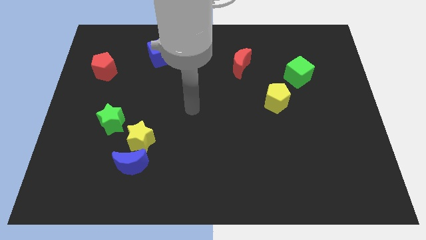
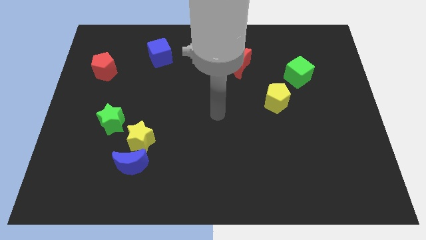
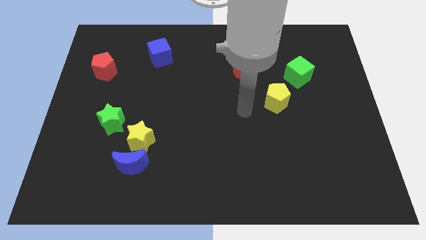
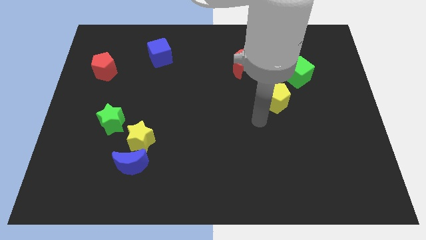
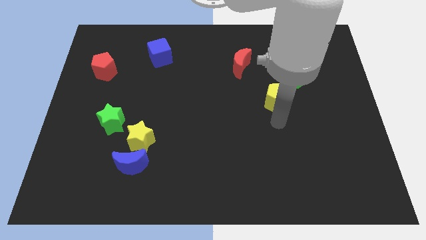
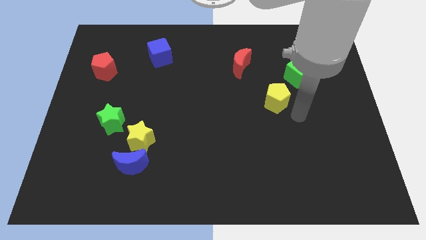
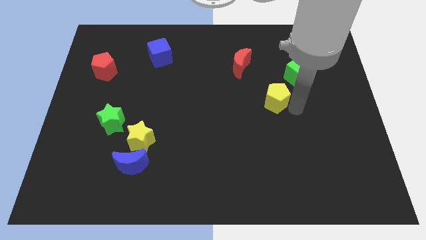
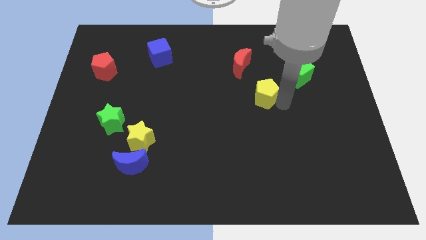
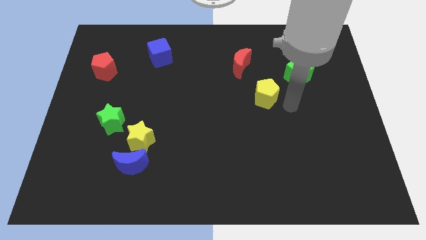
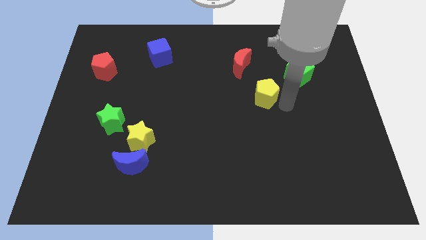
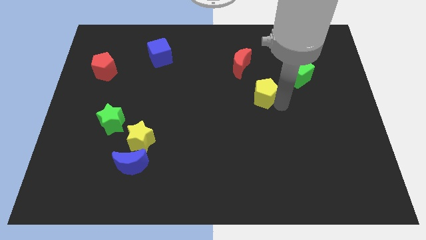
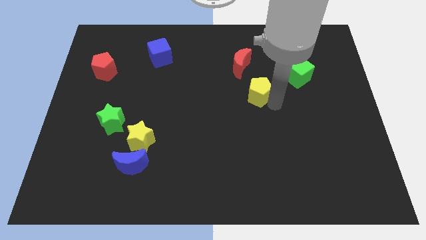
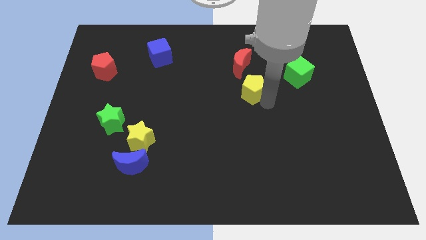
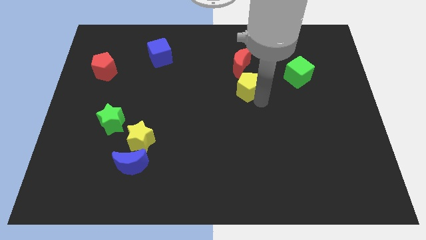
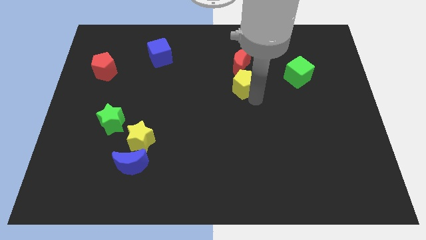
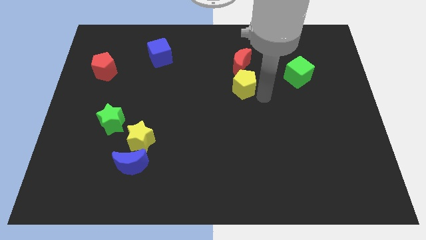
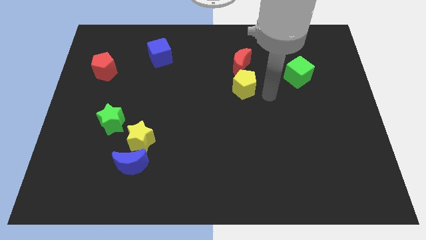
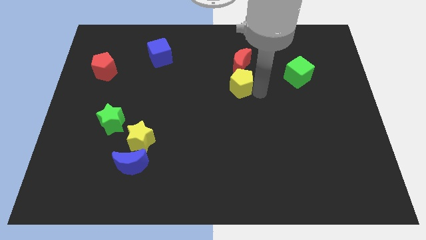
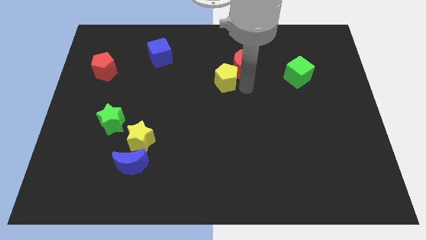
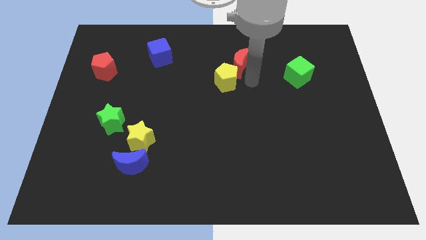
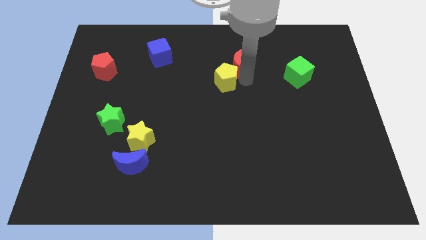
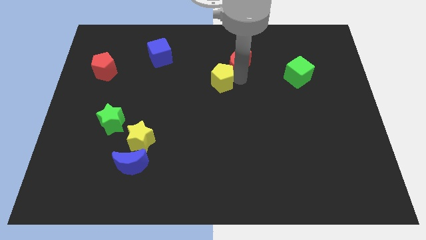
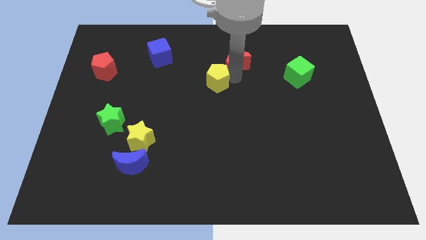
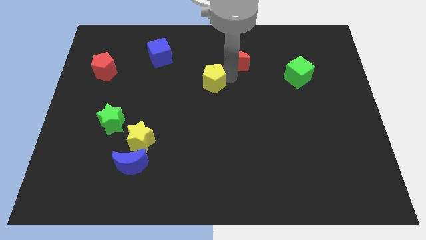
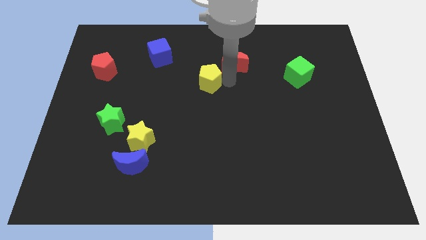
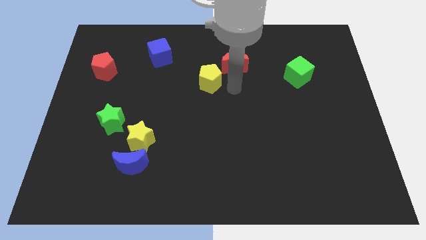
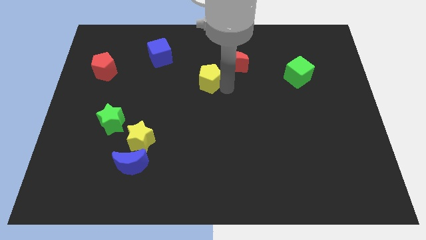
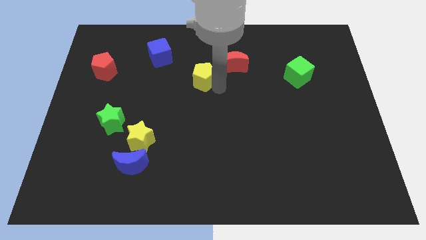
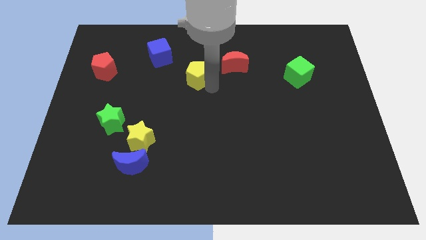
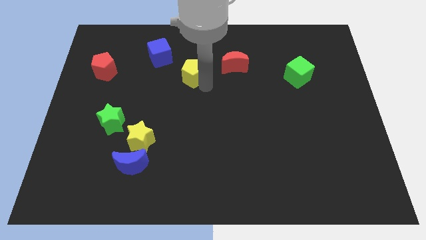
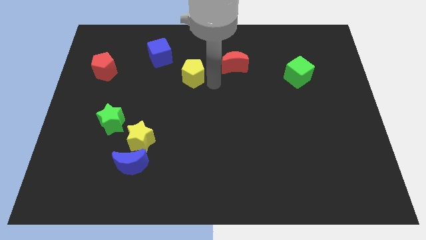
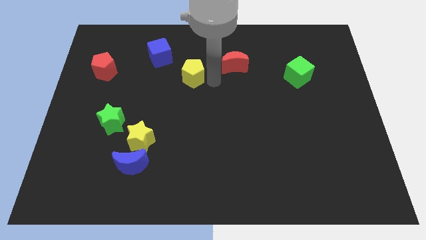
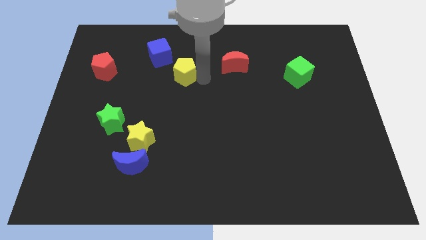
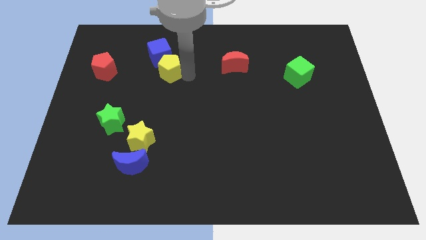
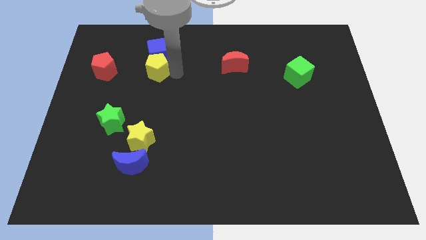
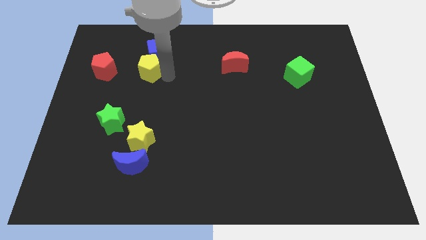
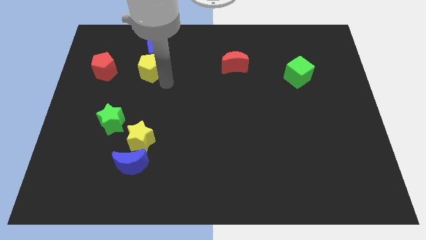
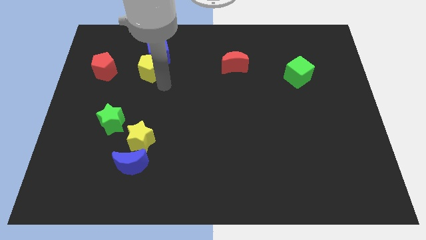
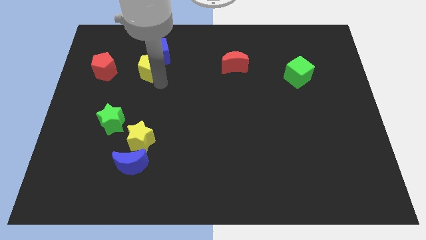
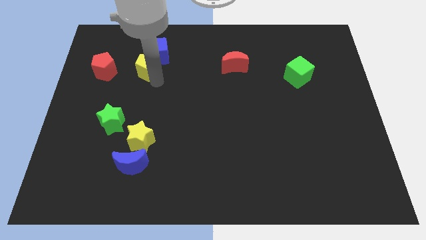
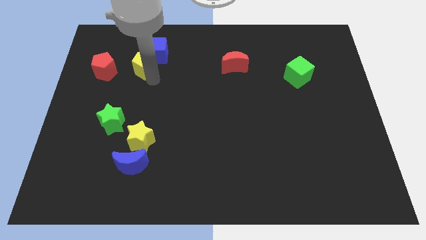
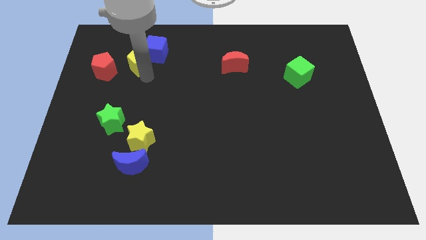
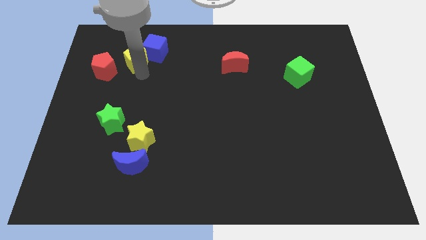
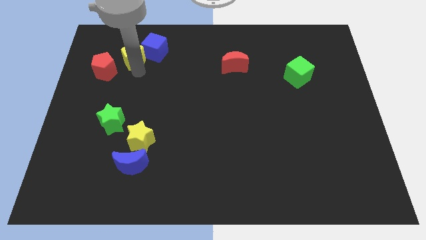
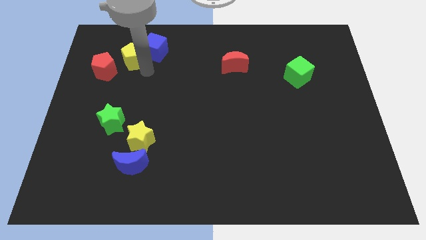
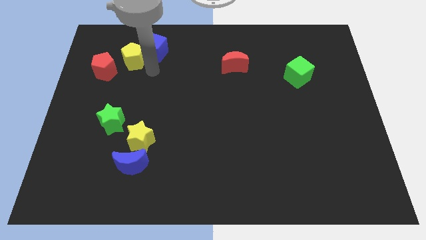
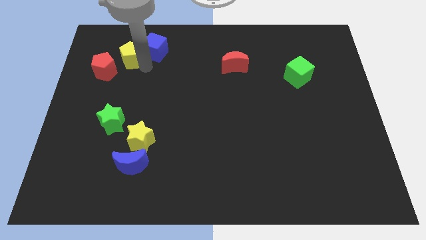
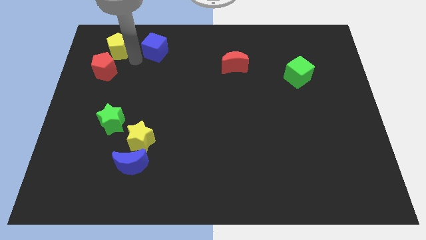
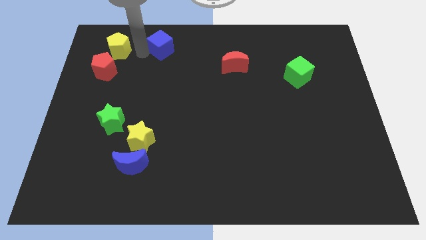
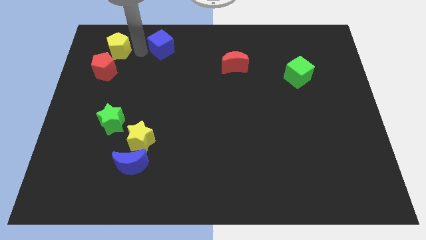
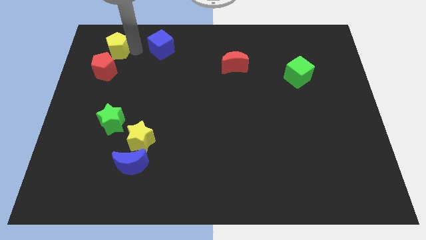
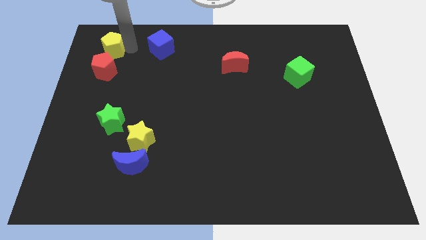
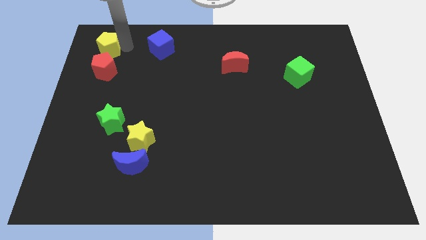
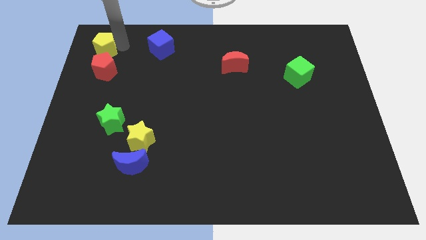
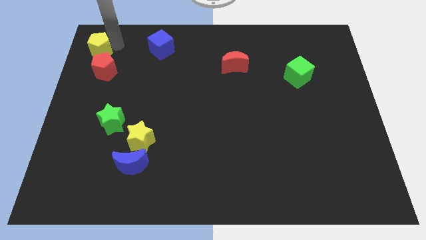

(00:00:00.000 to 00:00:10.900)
push the yellow pentagon to the top left of the board

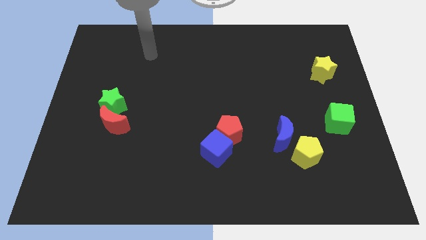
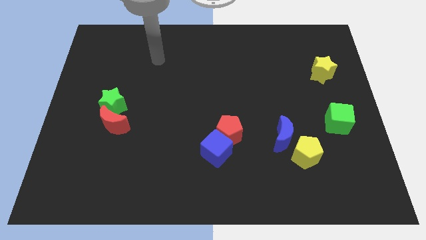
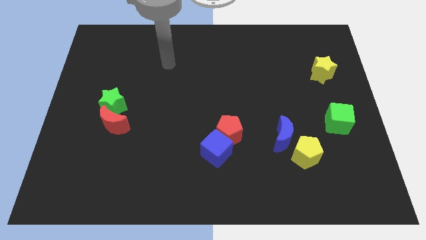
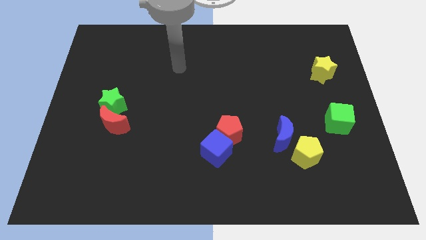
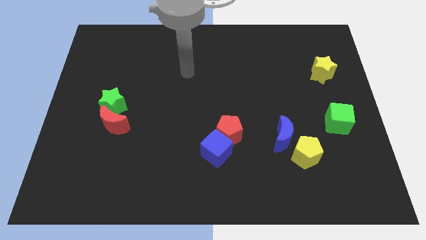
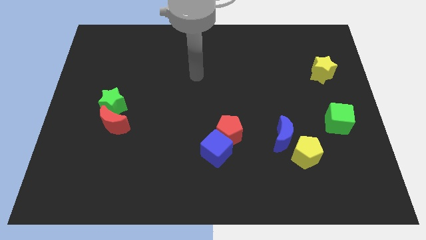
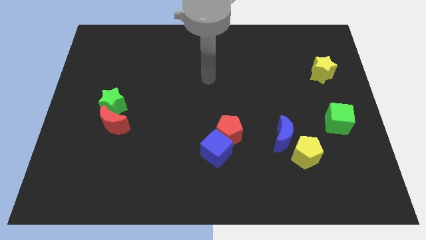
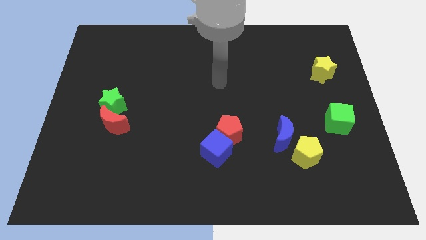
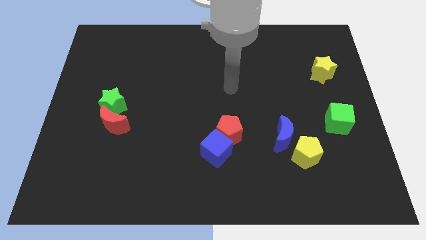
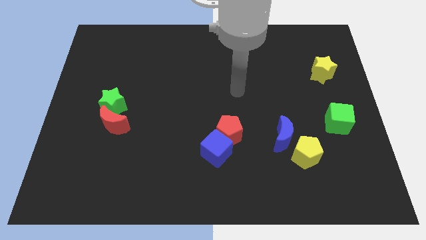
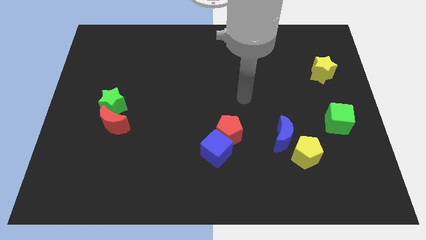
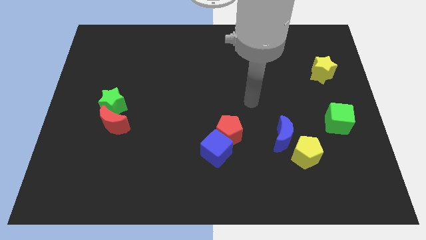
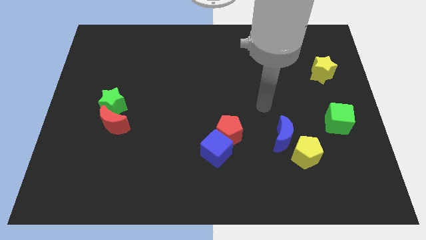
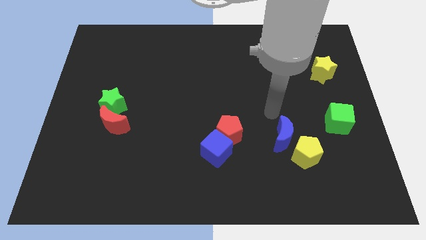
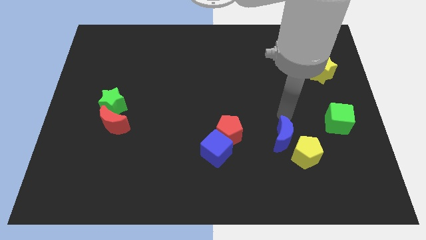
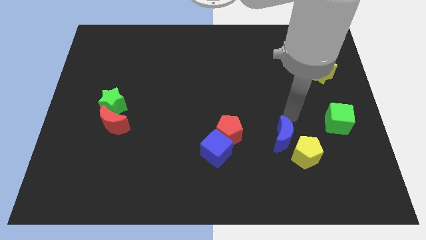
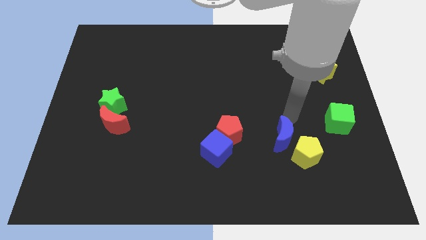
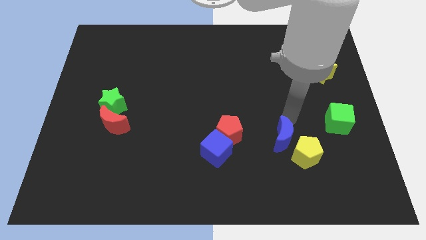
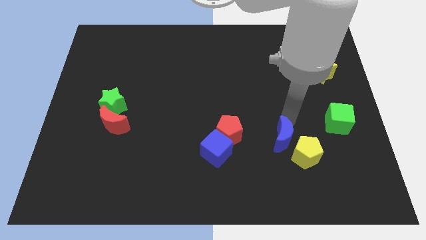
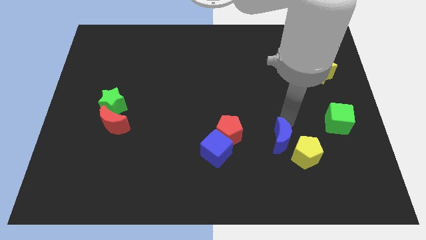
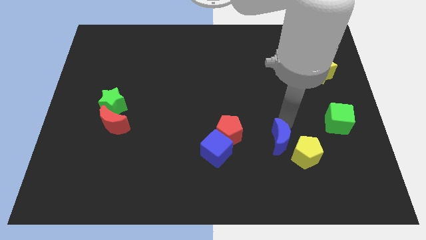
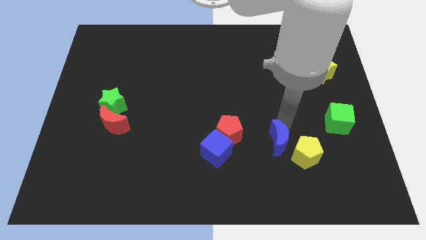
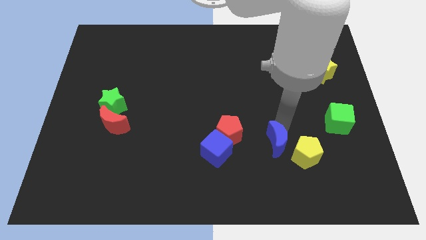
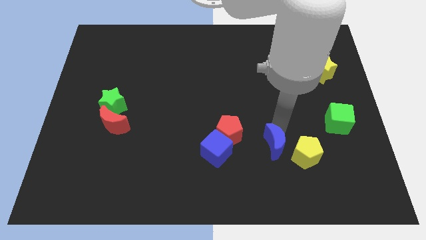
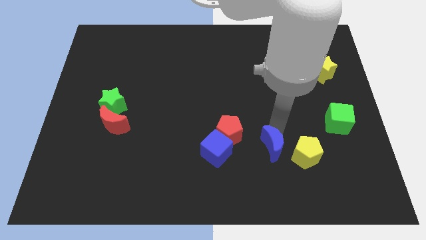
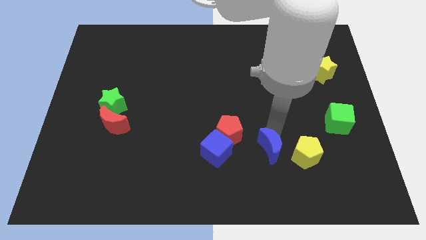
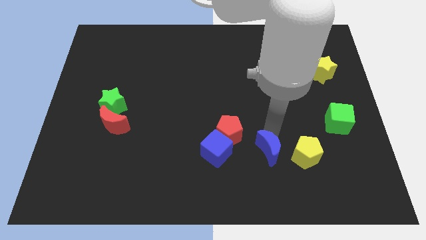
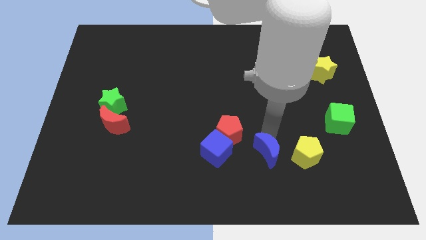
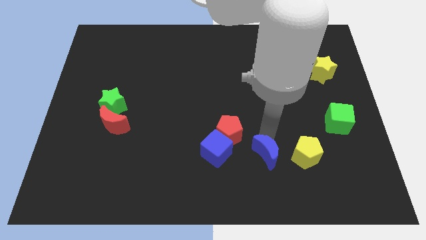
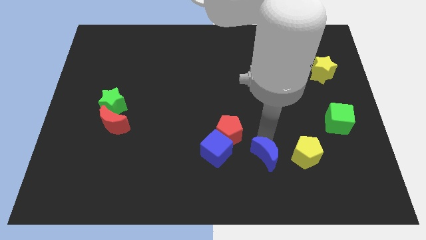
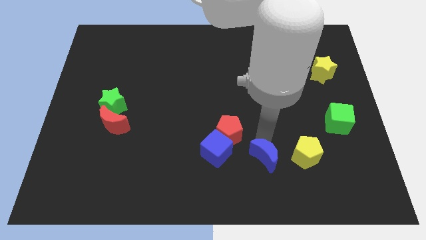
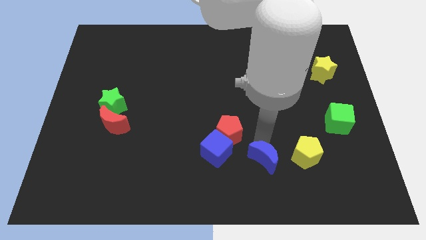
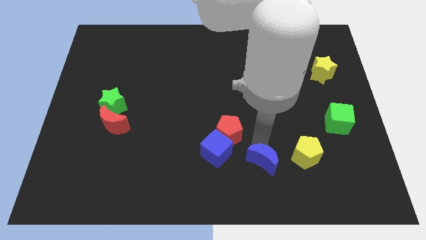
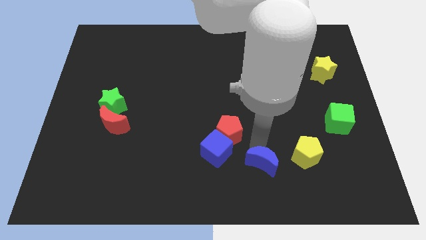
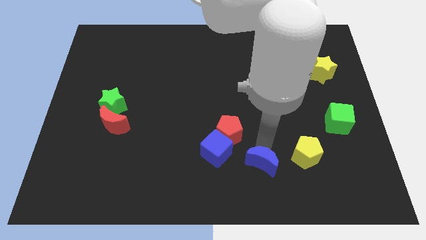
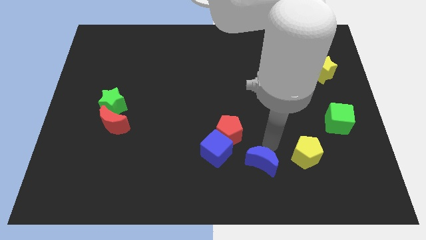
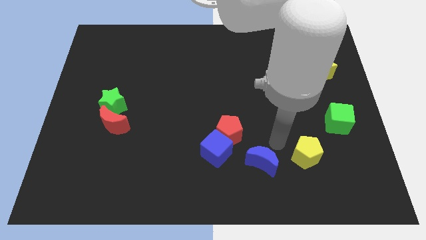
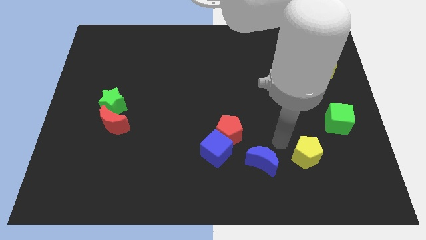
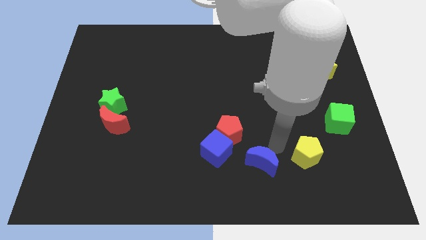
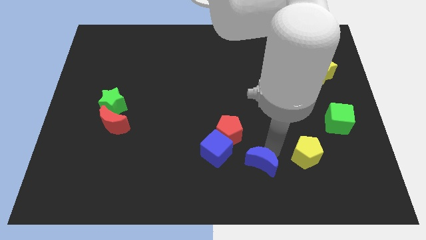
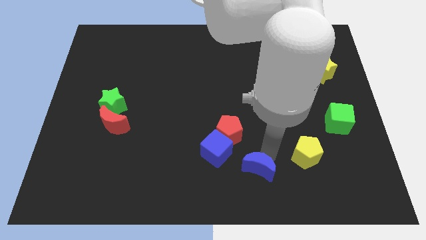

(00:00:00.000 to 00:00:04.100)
slide the blue moon to the bottom
